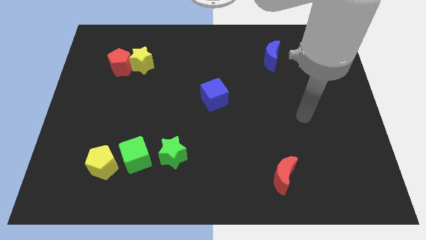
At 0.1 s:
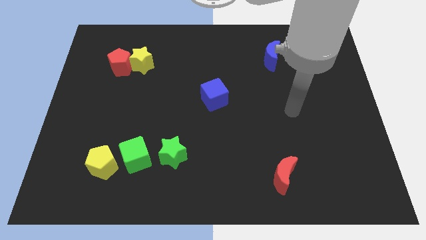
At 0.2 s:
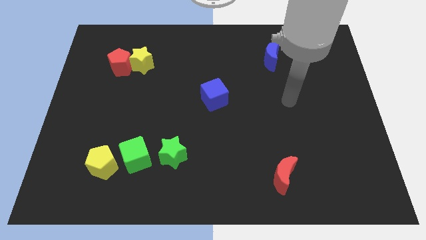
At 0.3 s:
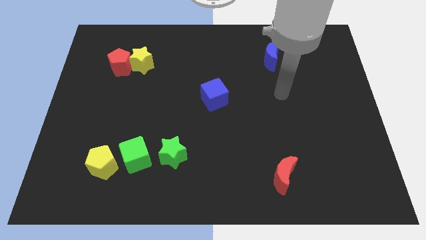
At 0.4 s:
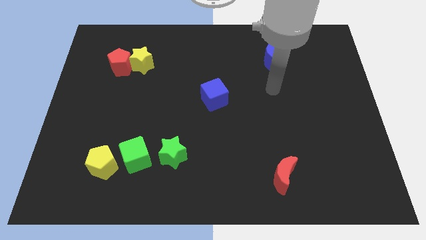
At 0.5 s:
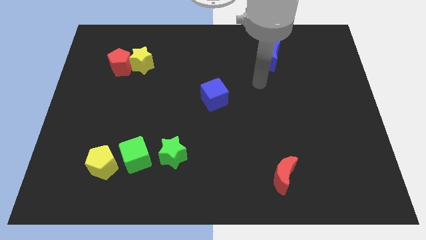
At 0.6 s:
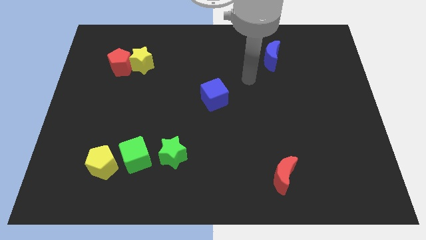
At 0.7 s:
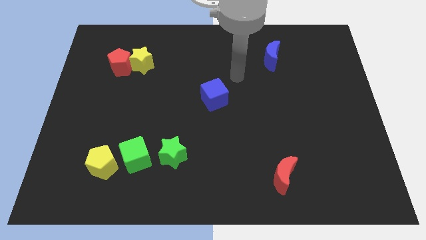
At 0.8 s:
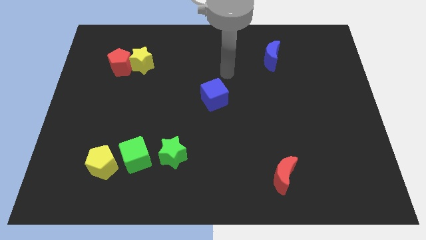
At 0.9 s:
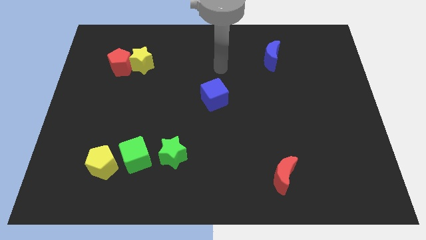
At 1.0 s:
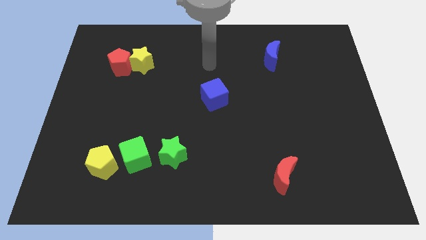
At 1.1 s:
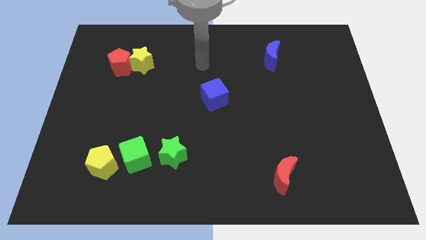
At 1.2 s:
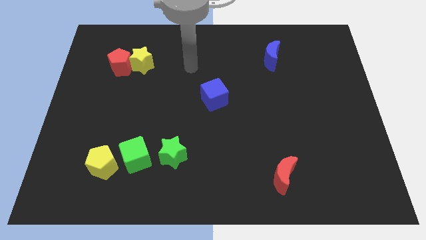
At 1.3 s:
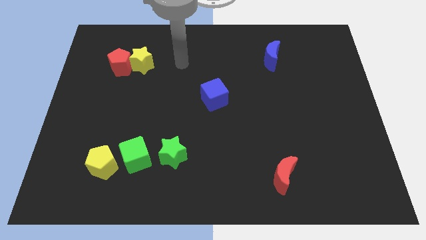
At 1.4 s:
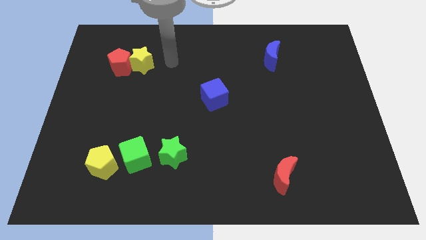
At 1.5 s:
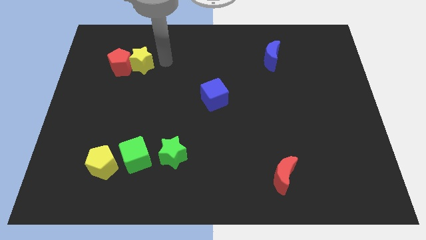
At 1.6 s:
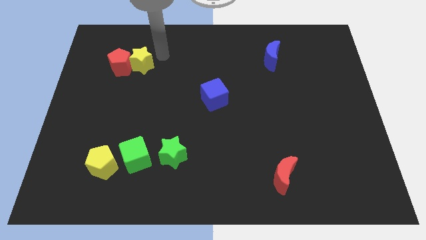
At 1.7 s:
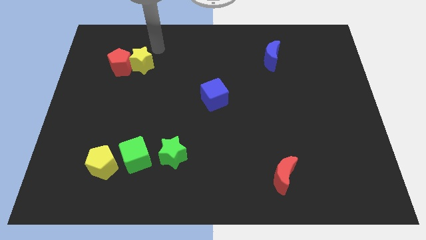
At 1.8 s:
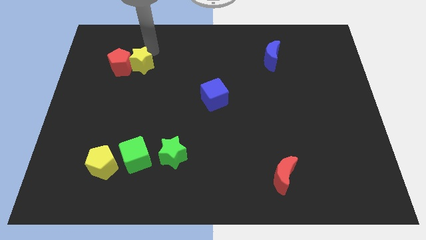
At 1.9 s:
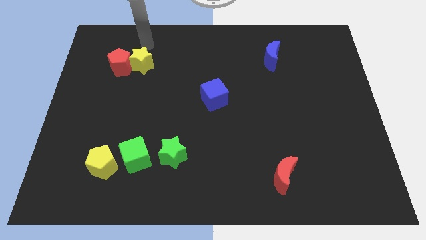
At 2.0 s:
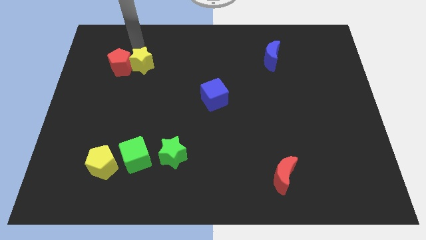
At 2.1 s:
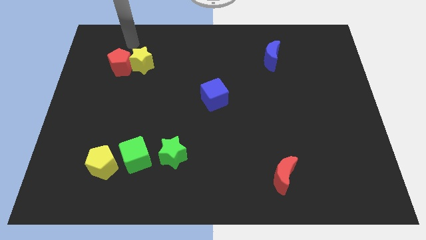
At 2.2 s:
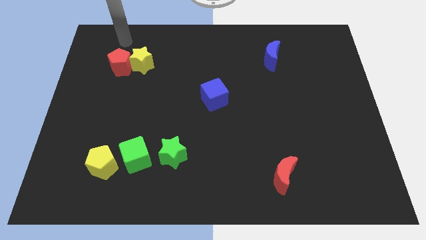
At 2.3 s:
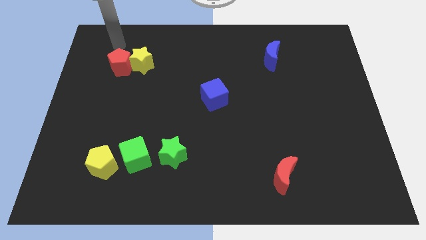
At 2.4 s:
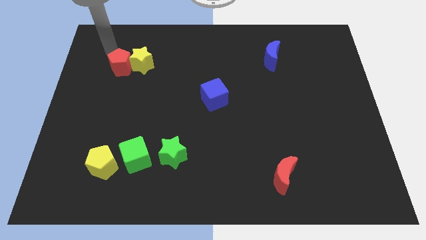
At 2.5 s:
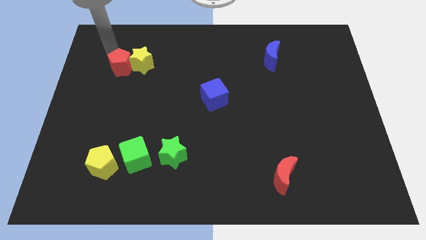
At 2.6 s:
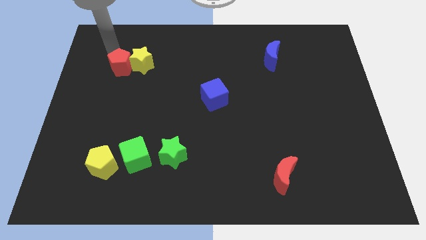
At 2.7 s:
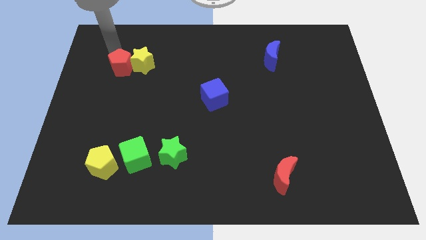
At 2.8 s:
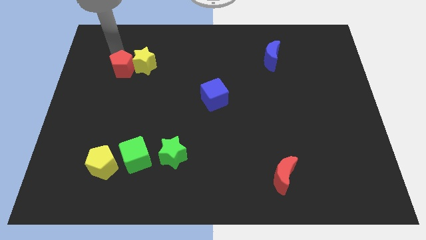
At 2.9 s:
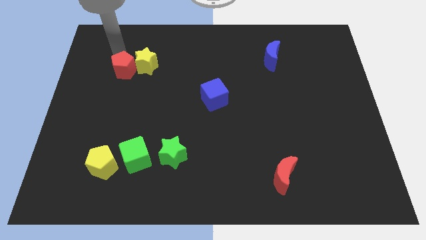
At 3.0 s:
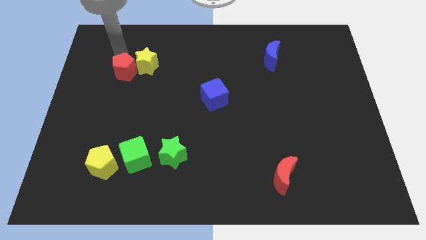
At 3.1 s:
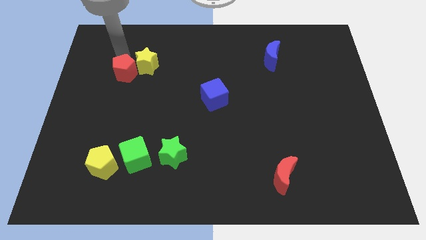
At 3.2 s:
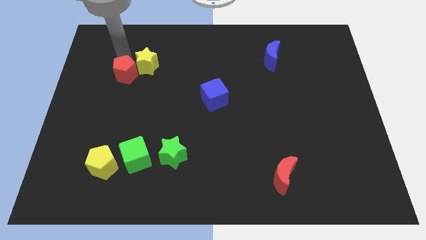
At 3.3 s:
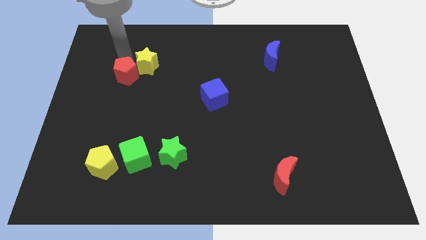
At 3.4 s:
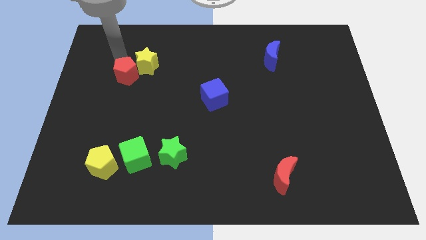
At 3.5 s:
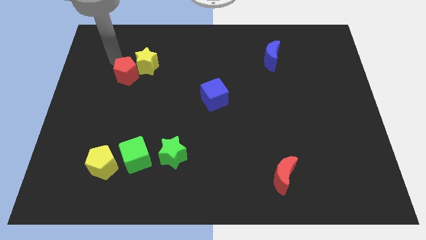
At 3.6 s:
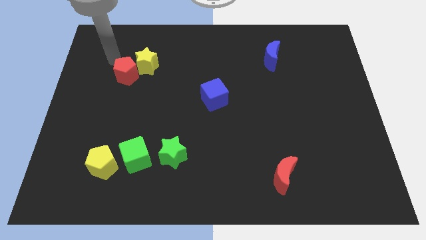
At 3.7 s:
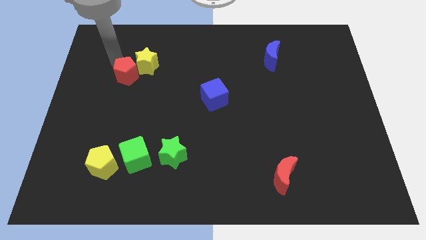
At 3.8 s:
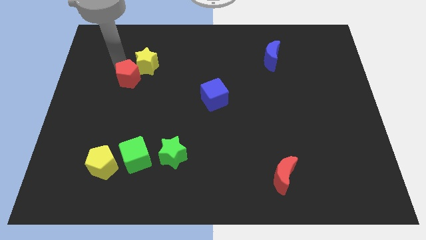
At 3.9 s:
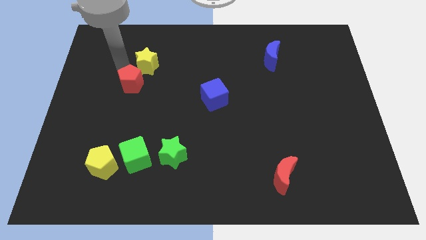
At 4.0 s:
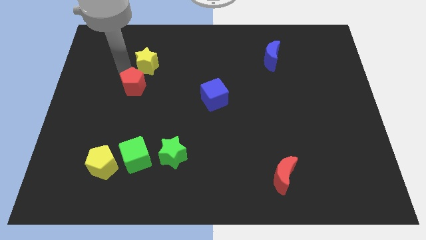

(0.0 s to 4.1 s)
push the red pentagon downwards and to the right a little bit

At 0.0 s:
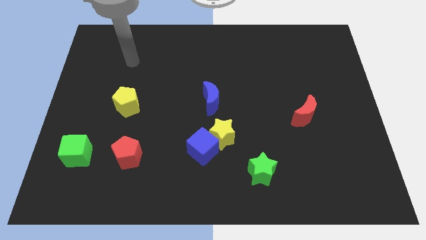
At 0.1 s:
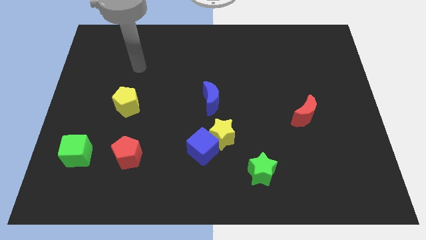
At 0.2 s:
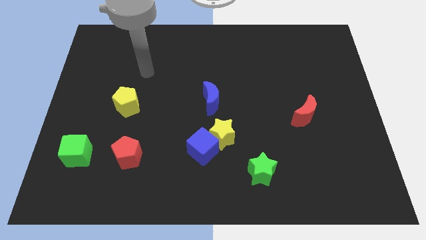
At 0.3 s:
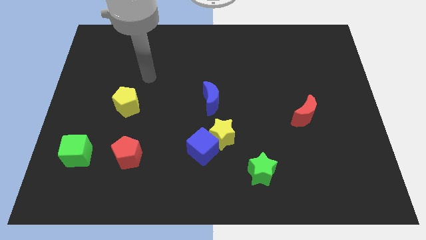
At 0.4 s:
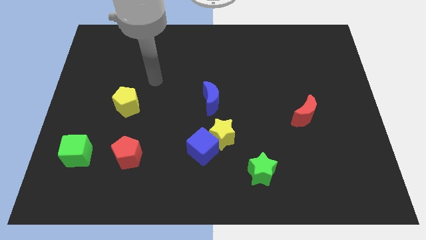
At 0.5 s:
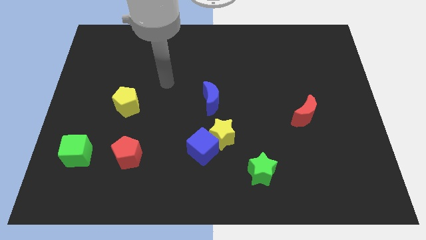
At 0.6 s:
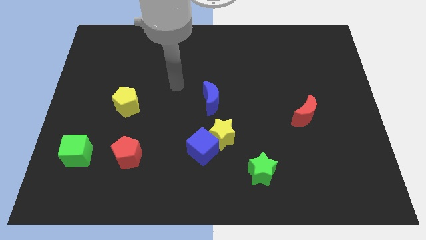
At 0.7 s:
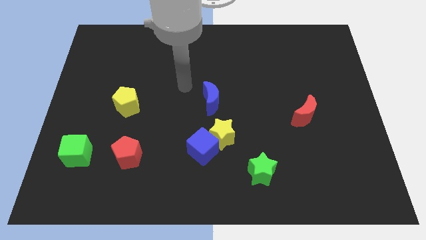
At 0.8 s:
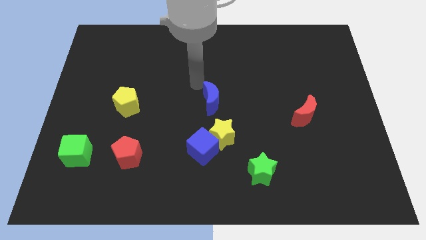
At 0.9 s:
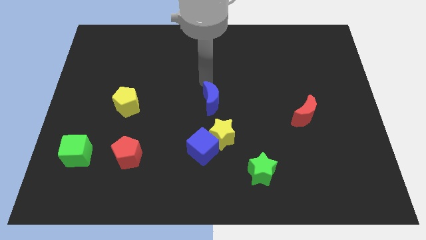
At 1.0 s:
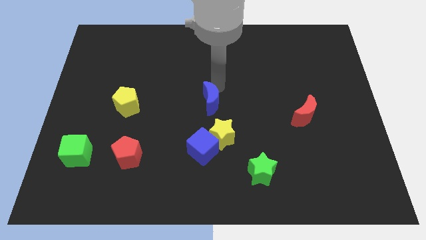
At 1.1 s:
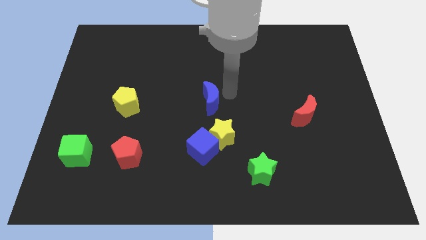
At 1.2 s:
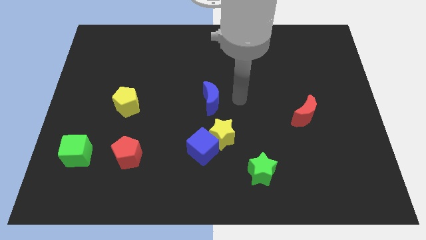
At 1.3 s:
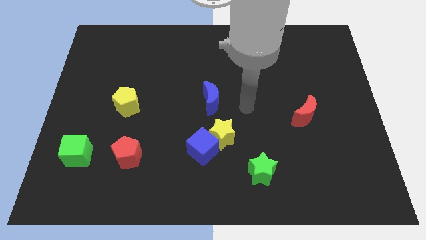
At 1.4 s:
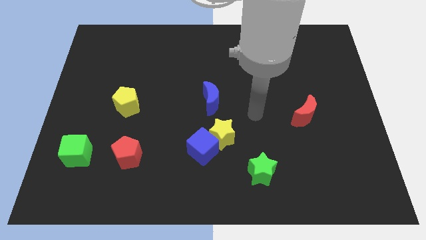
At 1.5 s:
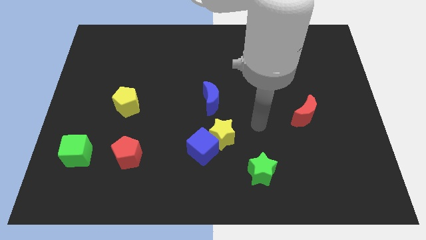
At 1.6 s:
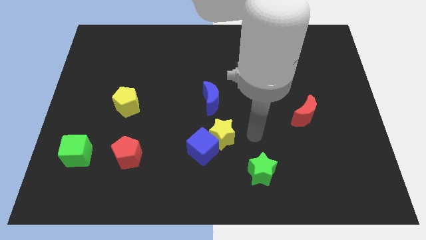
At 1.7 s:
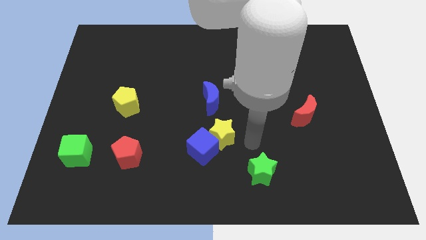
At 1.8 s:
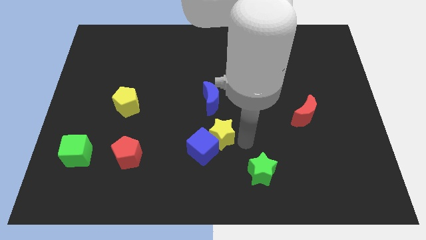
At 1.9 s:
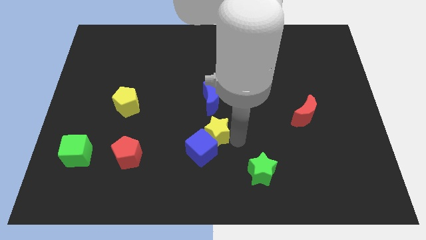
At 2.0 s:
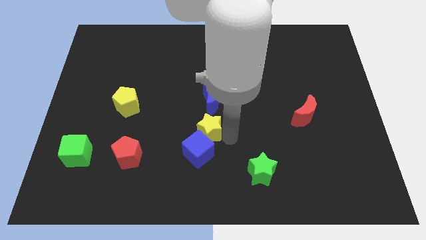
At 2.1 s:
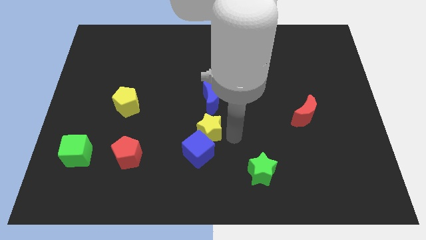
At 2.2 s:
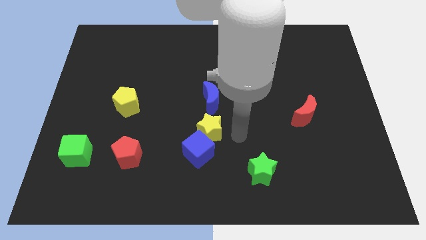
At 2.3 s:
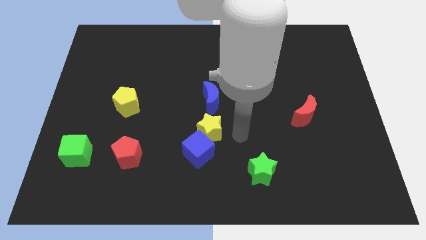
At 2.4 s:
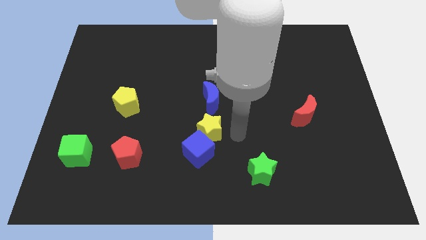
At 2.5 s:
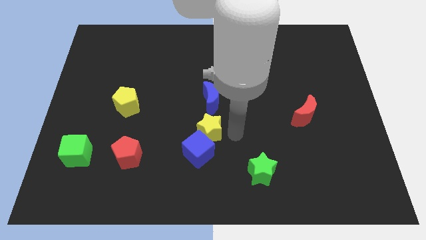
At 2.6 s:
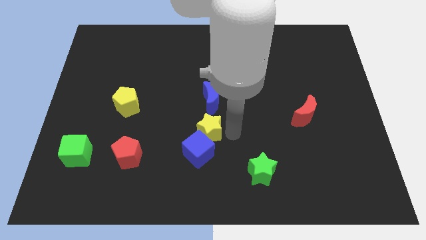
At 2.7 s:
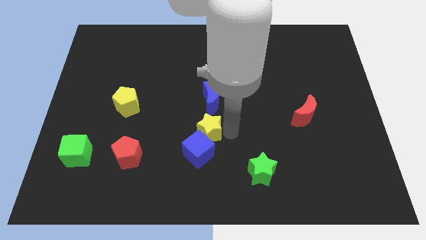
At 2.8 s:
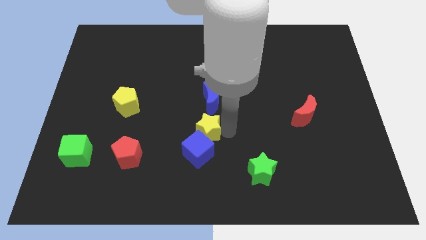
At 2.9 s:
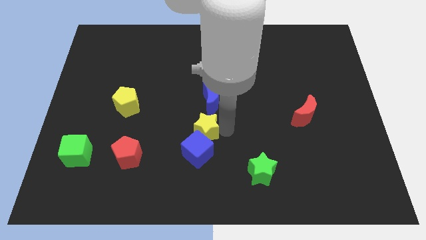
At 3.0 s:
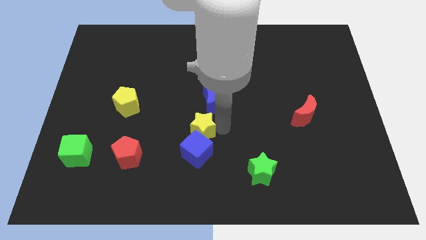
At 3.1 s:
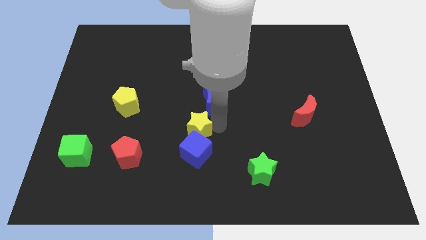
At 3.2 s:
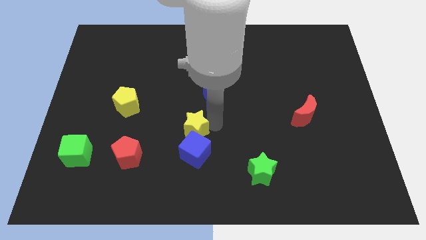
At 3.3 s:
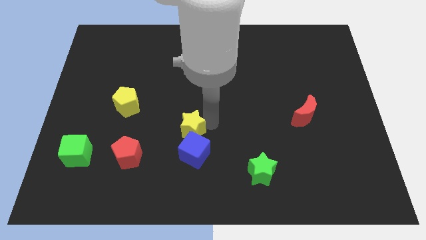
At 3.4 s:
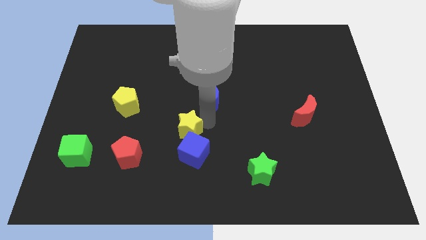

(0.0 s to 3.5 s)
slightly push the yellow star left

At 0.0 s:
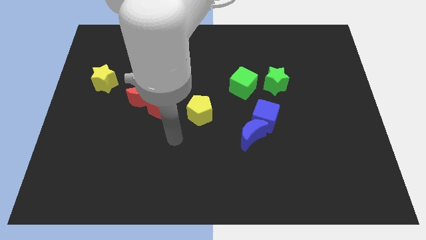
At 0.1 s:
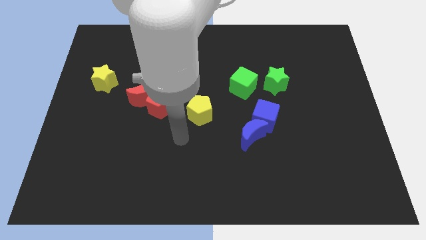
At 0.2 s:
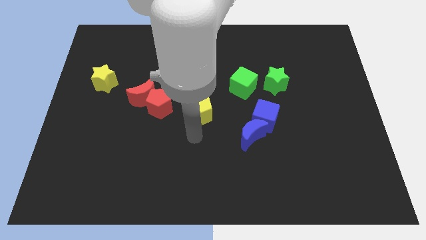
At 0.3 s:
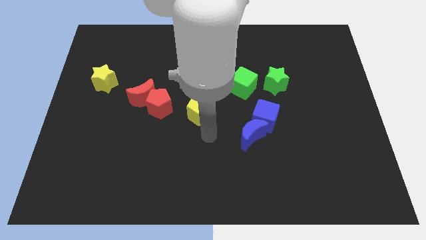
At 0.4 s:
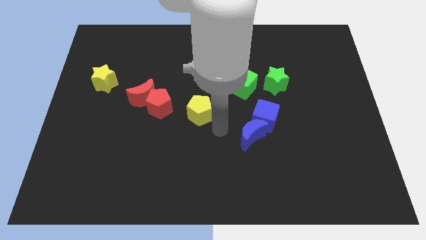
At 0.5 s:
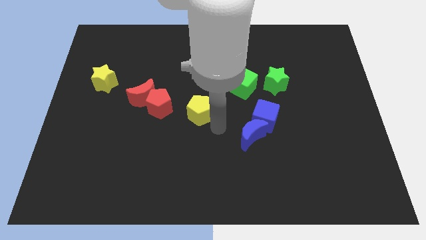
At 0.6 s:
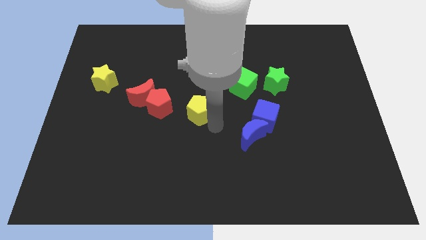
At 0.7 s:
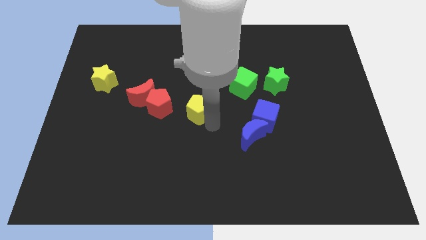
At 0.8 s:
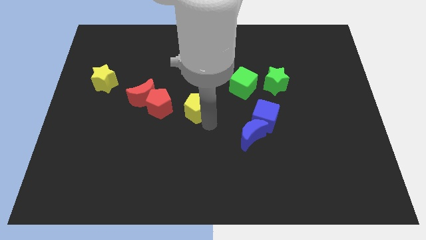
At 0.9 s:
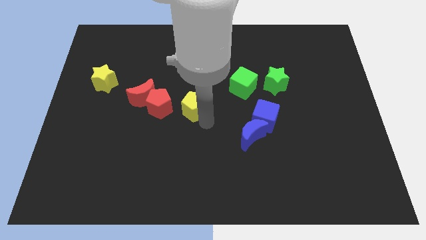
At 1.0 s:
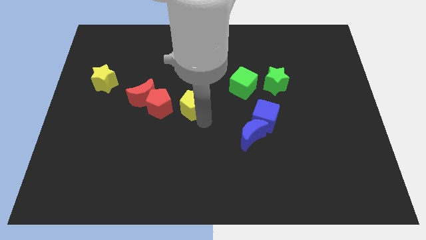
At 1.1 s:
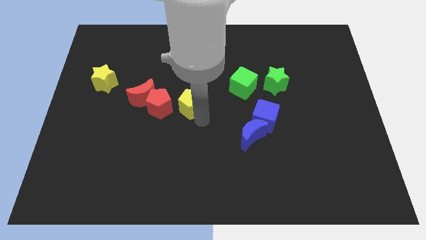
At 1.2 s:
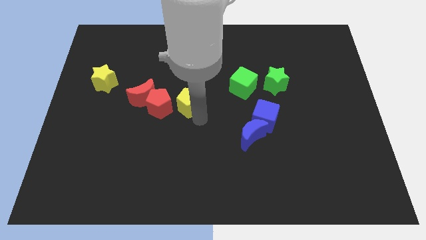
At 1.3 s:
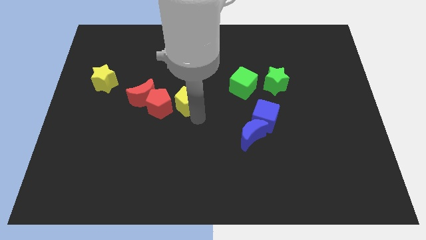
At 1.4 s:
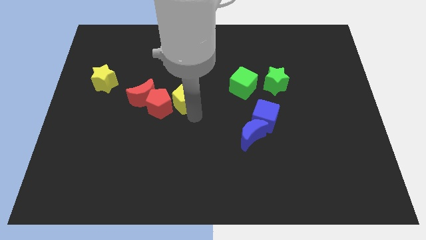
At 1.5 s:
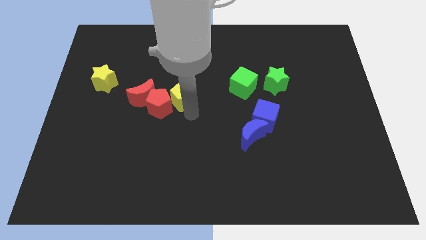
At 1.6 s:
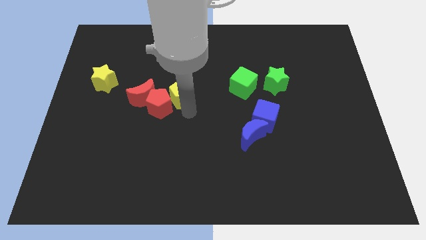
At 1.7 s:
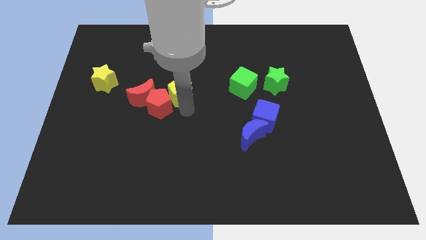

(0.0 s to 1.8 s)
move the yellow pentagon somewhat upwards and to the left diagonally
